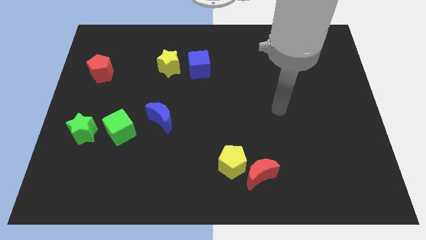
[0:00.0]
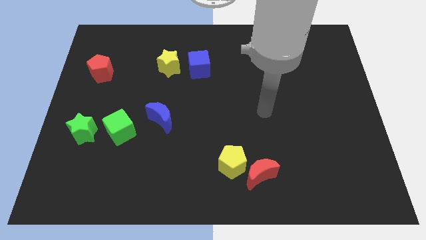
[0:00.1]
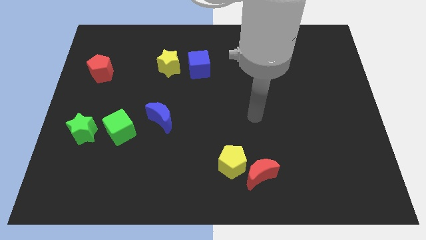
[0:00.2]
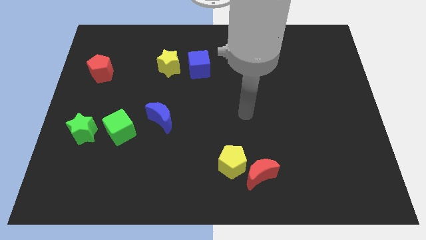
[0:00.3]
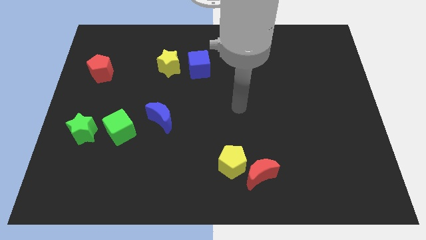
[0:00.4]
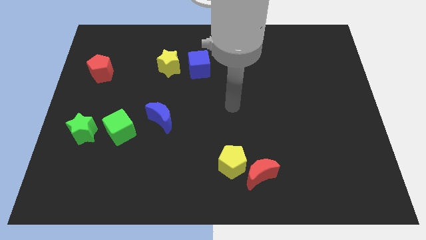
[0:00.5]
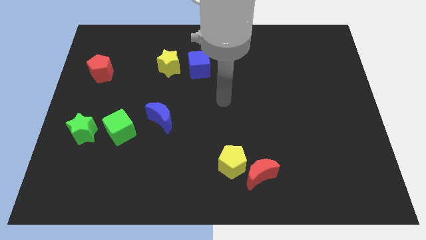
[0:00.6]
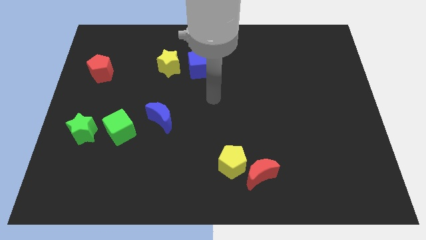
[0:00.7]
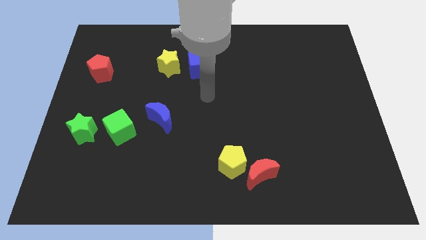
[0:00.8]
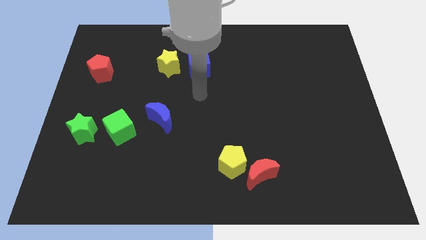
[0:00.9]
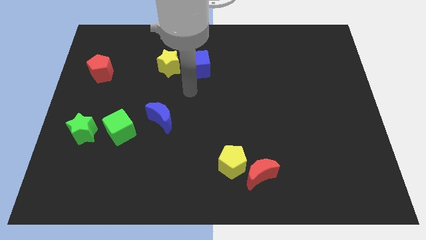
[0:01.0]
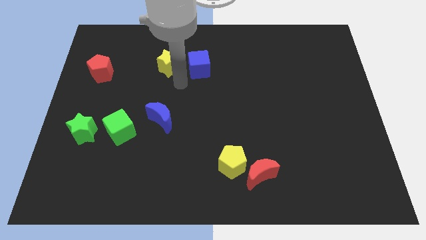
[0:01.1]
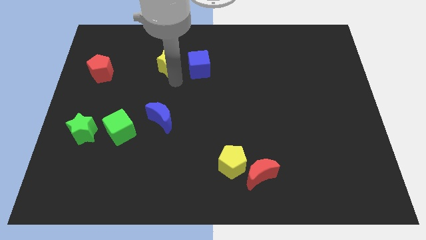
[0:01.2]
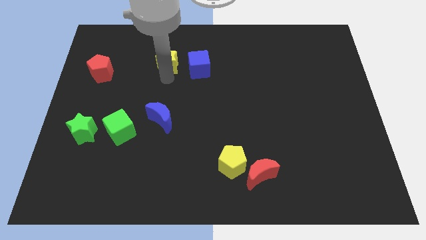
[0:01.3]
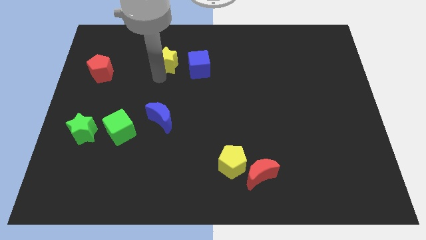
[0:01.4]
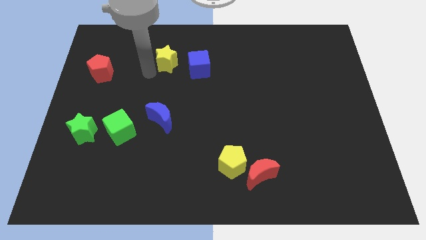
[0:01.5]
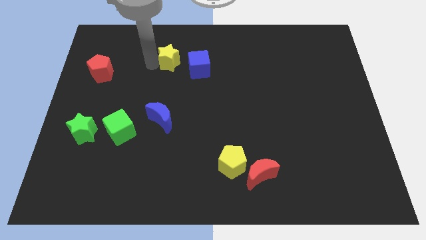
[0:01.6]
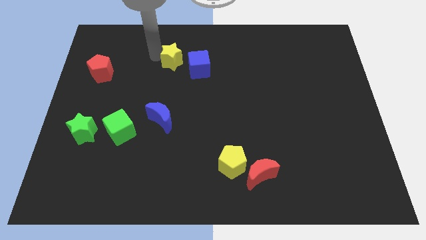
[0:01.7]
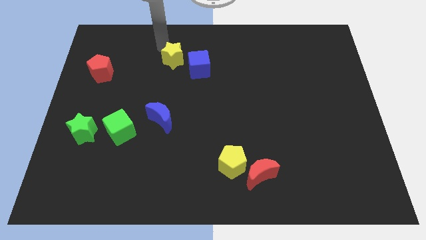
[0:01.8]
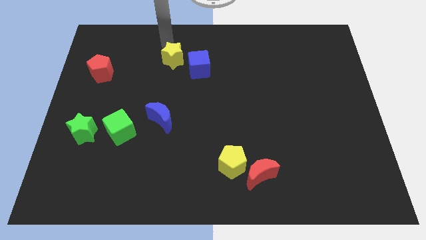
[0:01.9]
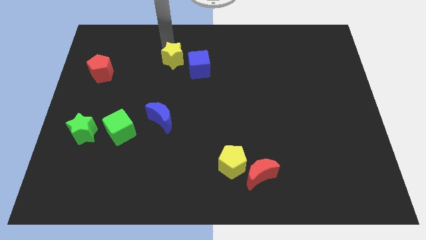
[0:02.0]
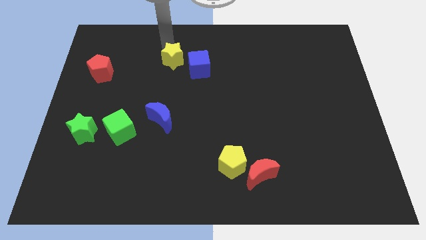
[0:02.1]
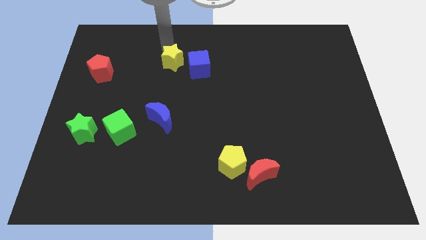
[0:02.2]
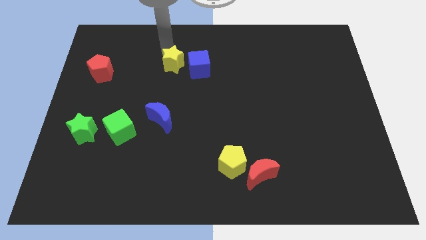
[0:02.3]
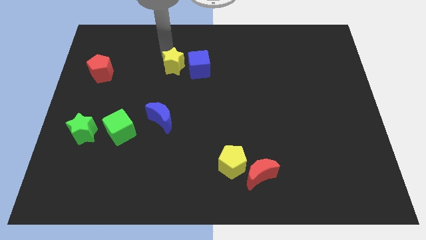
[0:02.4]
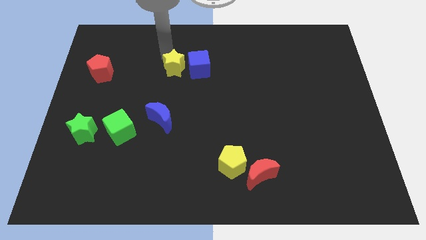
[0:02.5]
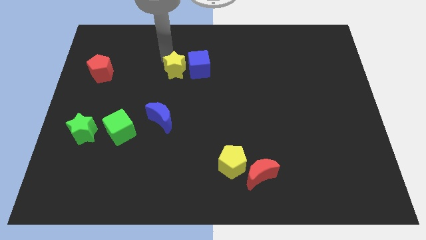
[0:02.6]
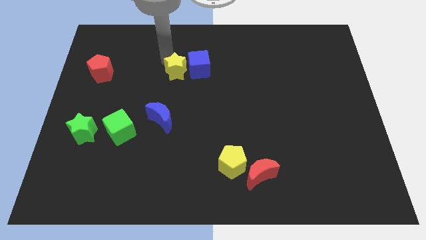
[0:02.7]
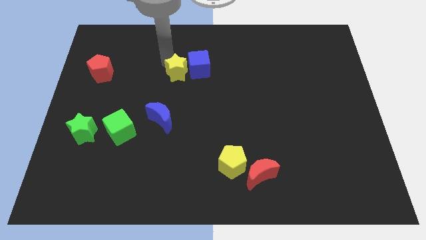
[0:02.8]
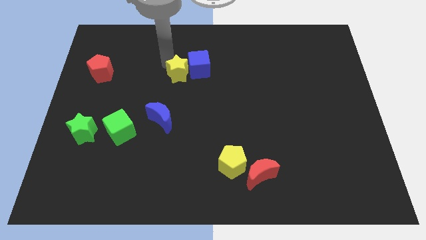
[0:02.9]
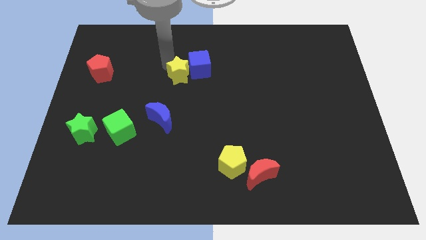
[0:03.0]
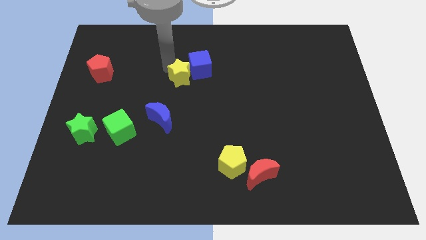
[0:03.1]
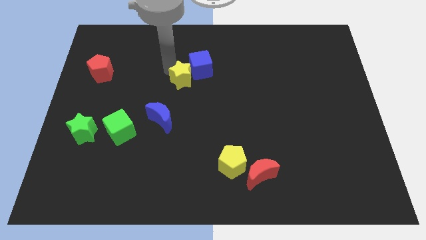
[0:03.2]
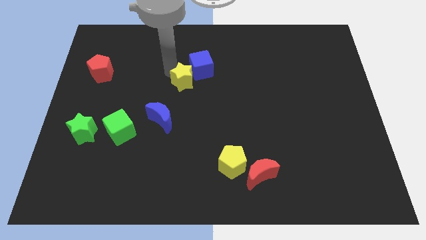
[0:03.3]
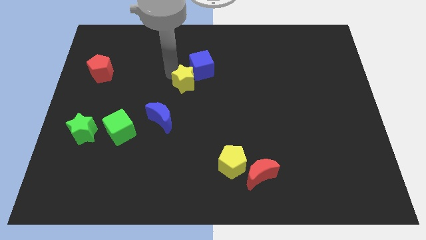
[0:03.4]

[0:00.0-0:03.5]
slightly slide the yellow star diagonally down and to the right

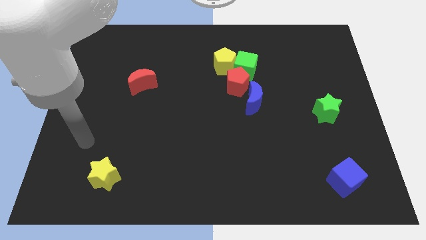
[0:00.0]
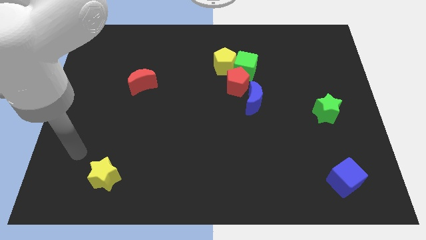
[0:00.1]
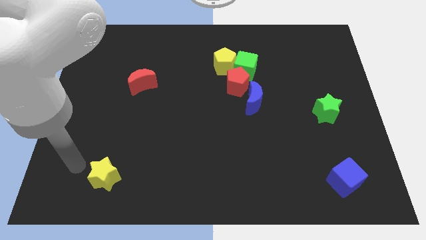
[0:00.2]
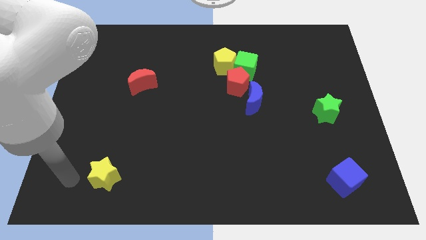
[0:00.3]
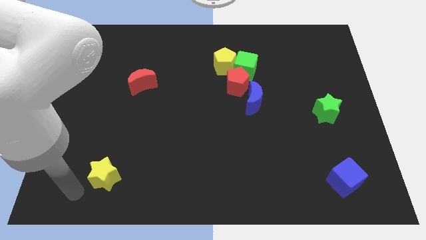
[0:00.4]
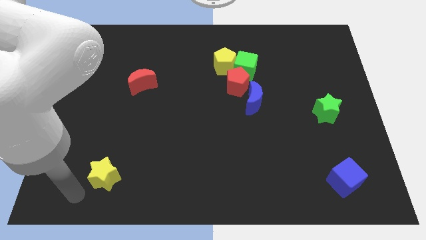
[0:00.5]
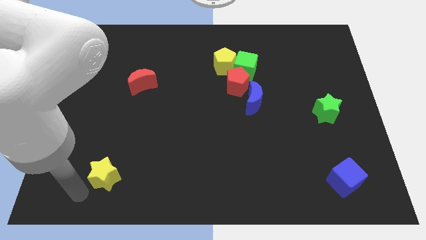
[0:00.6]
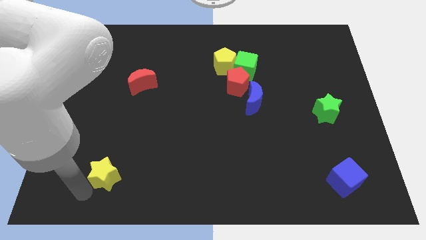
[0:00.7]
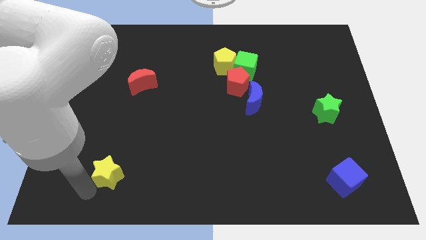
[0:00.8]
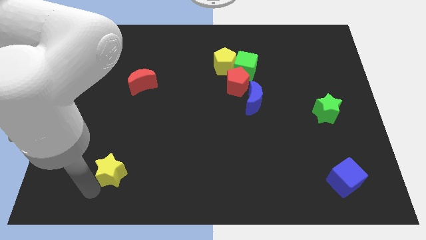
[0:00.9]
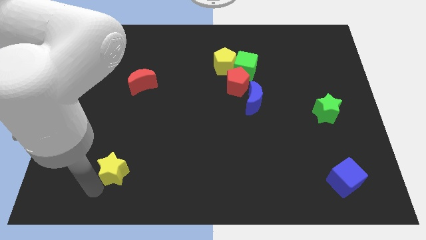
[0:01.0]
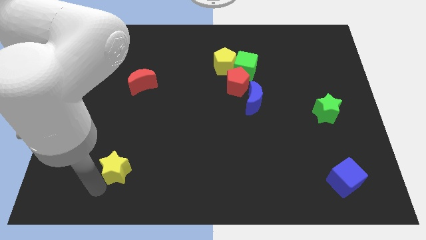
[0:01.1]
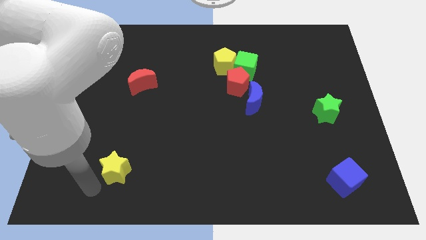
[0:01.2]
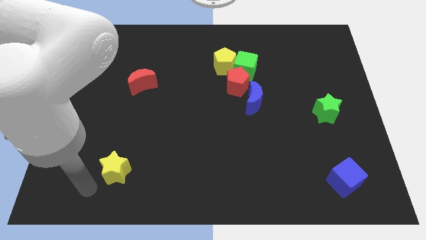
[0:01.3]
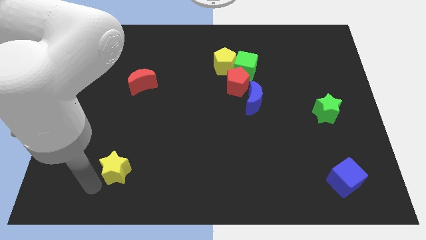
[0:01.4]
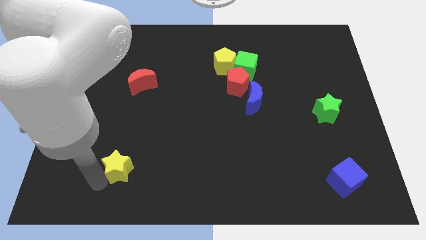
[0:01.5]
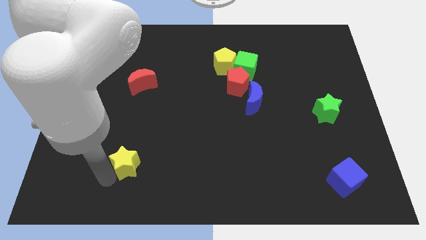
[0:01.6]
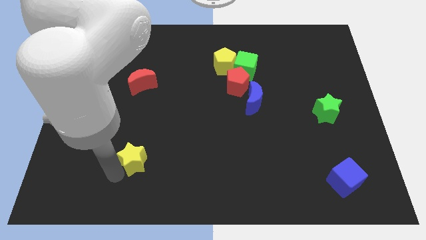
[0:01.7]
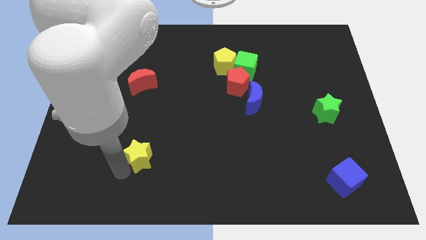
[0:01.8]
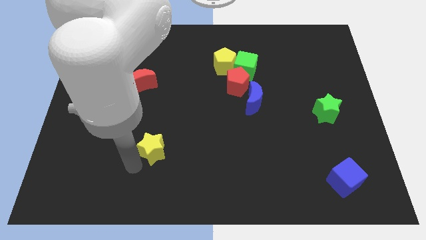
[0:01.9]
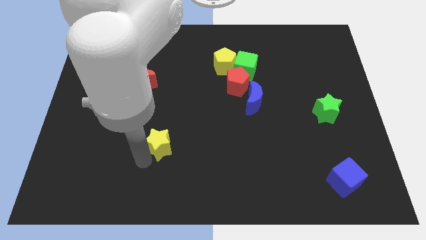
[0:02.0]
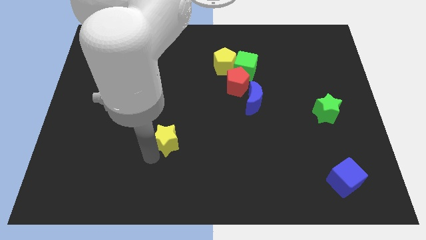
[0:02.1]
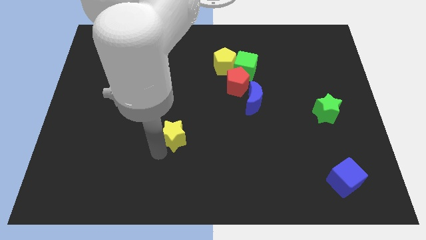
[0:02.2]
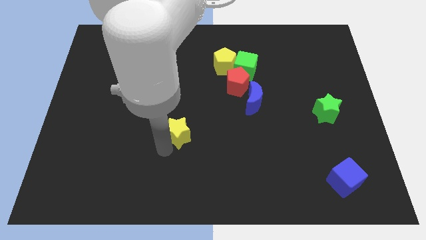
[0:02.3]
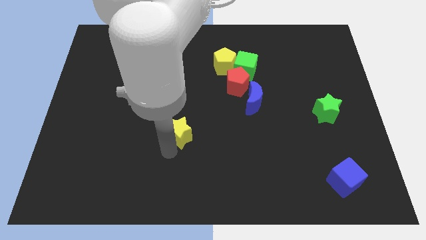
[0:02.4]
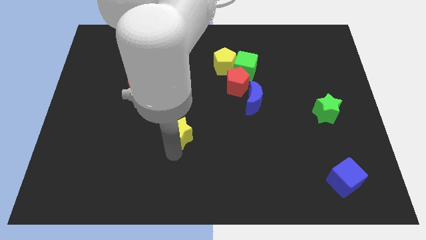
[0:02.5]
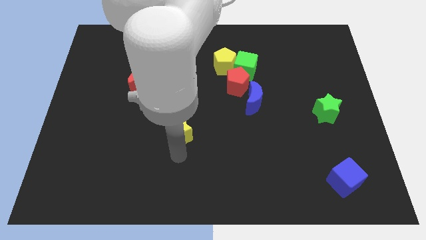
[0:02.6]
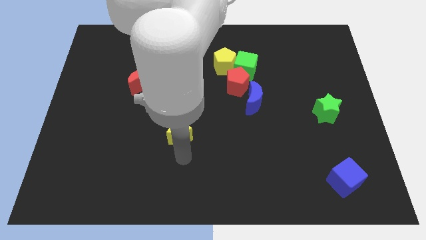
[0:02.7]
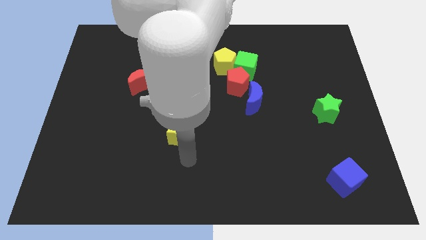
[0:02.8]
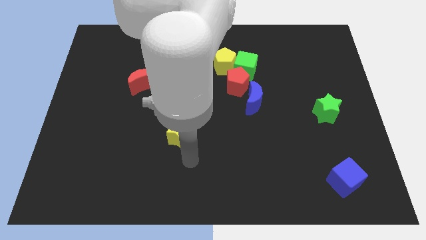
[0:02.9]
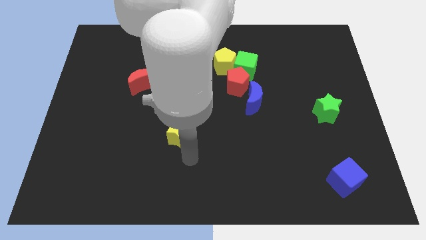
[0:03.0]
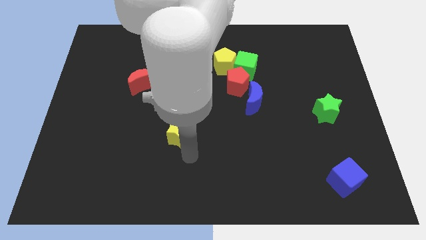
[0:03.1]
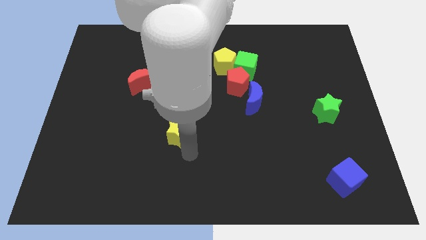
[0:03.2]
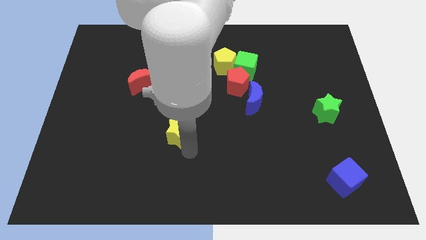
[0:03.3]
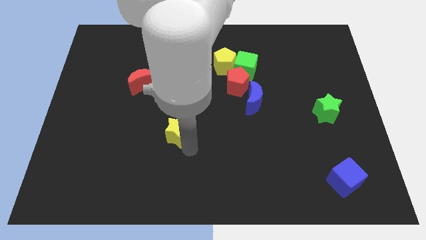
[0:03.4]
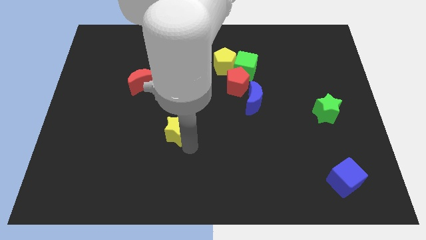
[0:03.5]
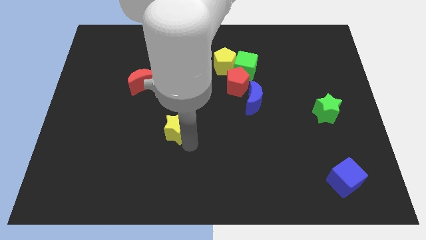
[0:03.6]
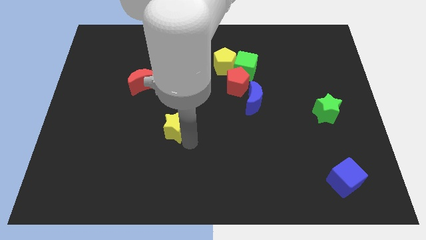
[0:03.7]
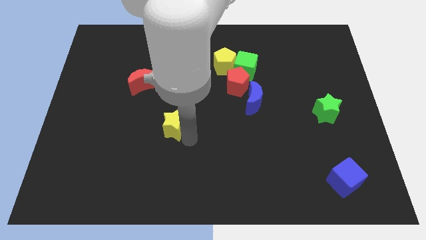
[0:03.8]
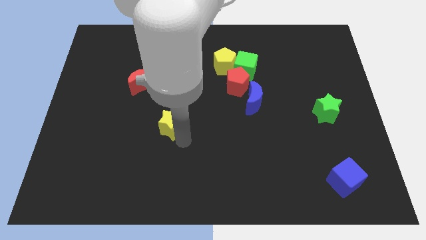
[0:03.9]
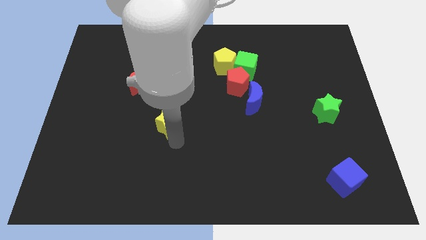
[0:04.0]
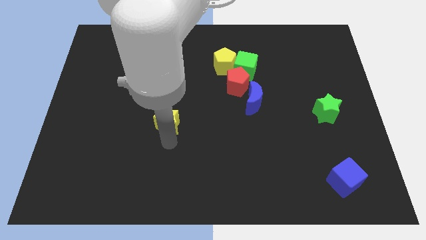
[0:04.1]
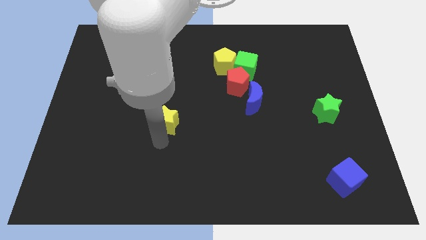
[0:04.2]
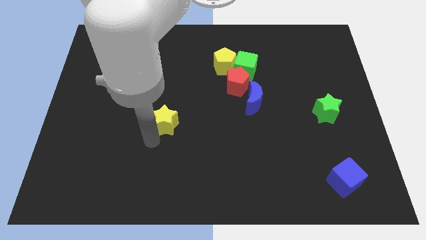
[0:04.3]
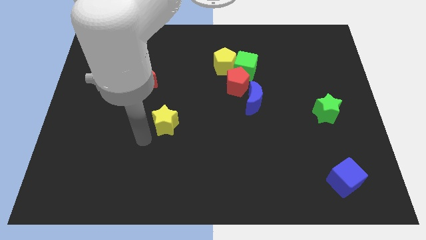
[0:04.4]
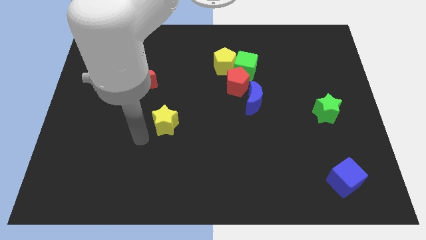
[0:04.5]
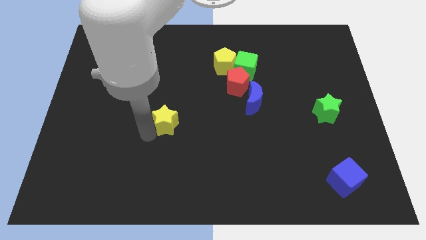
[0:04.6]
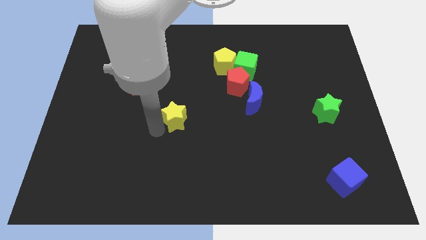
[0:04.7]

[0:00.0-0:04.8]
push the yellow star diagonally upwards and to the right
